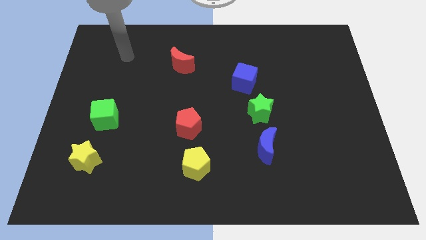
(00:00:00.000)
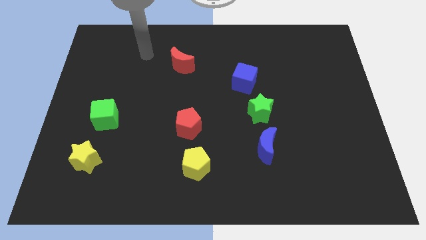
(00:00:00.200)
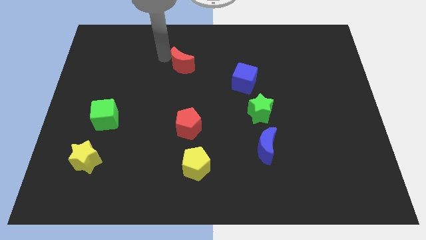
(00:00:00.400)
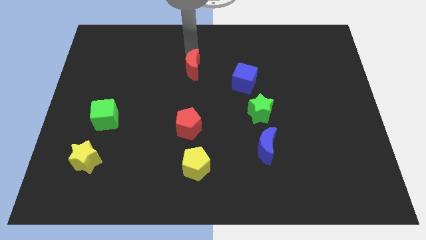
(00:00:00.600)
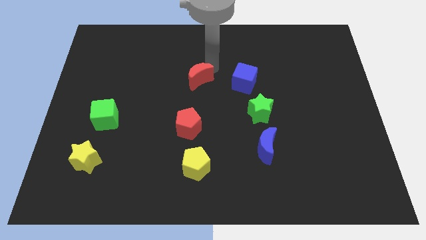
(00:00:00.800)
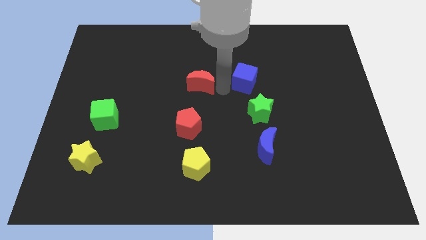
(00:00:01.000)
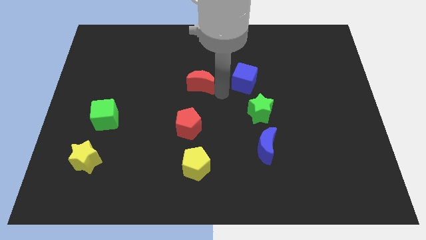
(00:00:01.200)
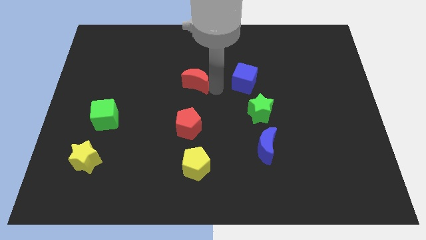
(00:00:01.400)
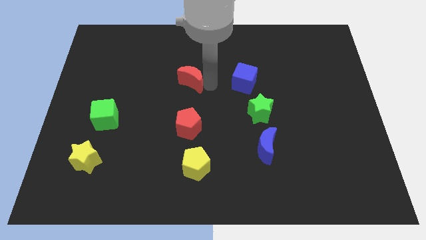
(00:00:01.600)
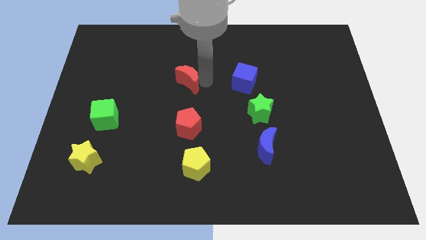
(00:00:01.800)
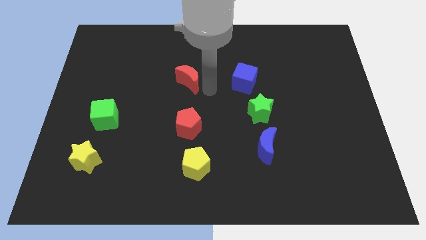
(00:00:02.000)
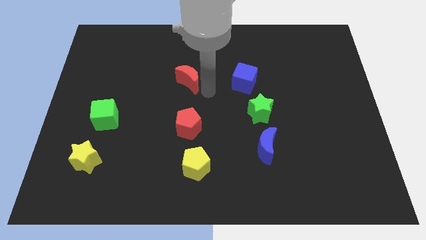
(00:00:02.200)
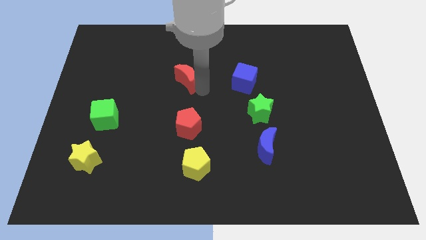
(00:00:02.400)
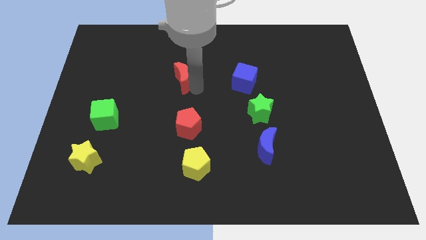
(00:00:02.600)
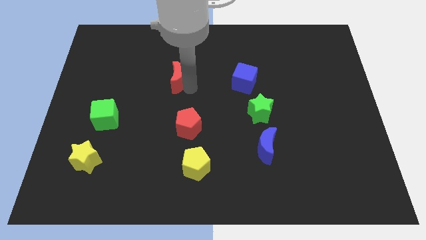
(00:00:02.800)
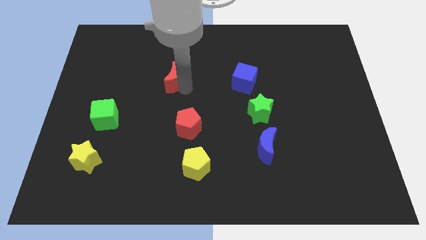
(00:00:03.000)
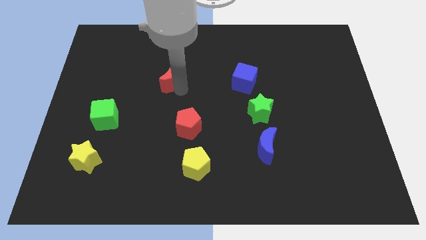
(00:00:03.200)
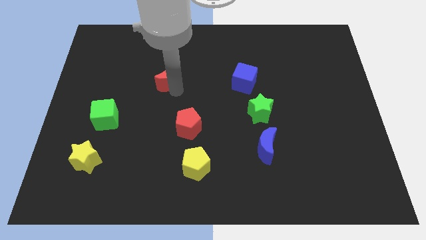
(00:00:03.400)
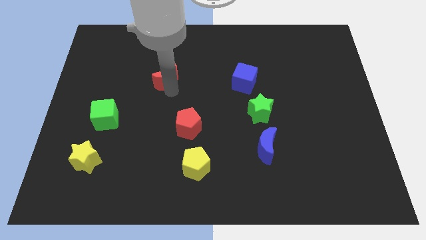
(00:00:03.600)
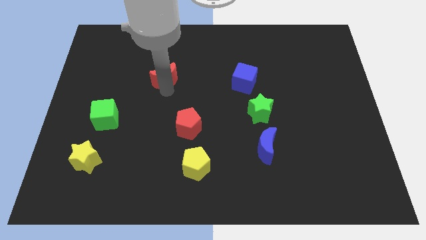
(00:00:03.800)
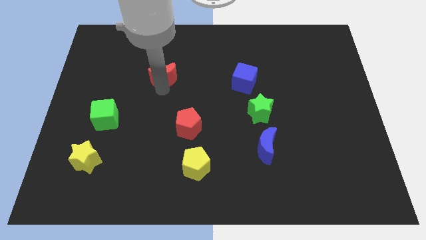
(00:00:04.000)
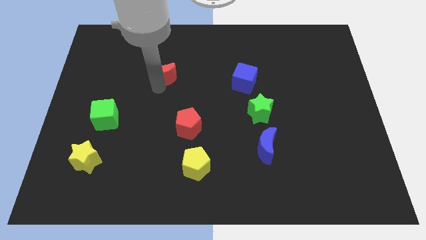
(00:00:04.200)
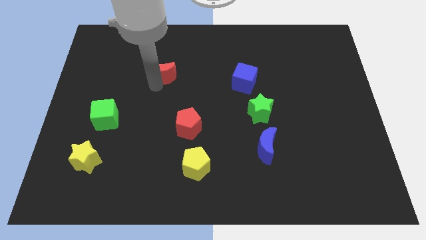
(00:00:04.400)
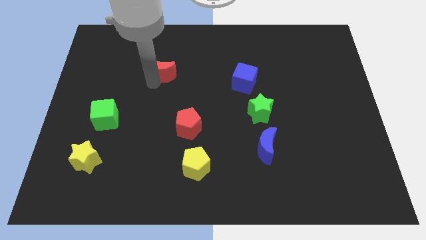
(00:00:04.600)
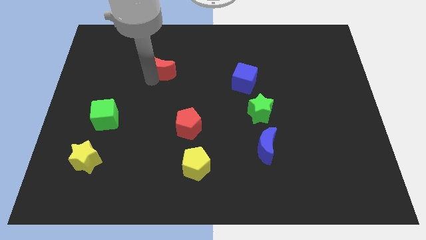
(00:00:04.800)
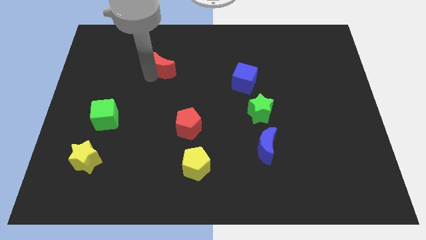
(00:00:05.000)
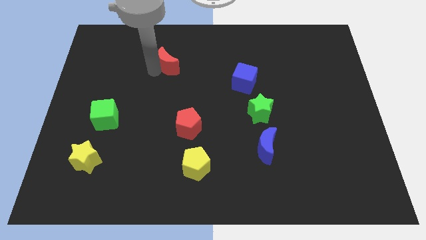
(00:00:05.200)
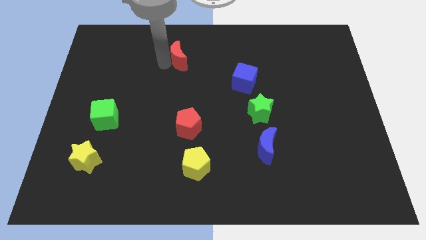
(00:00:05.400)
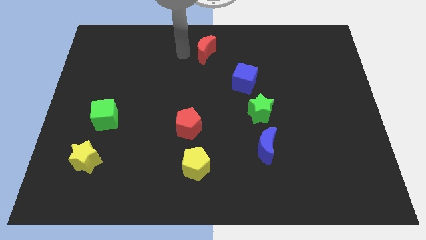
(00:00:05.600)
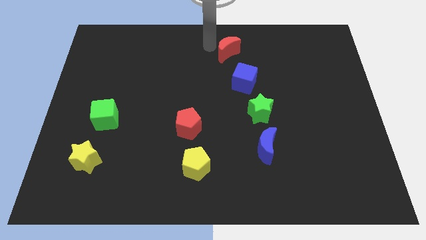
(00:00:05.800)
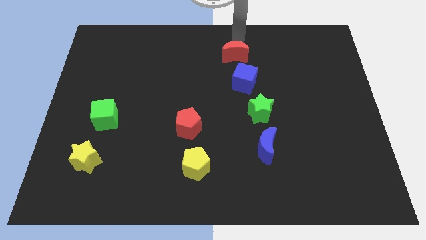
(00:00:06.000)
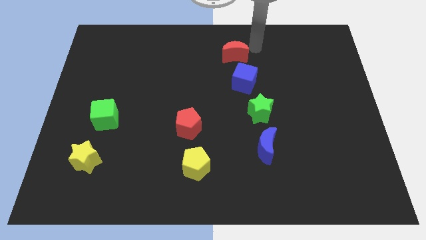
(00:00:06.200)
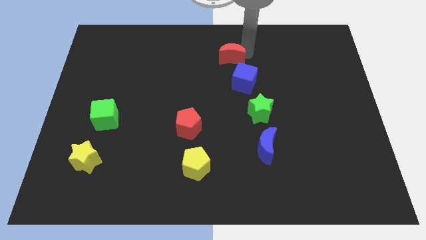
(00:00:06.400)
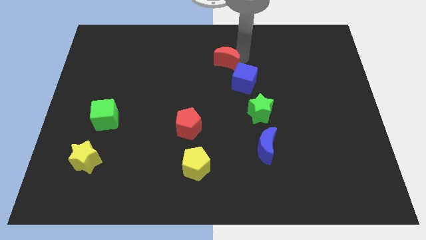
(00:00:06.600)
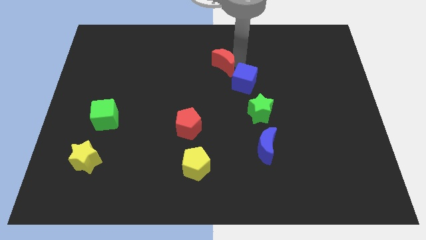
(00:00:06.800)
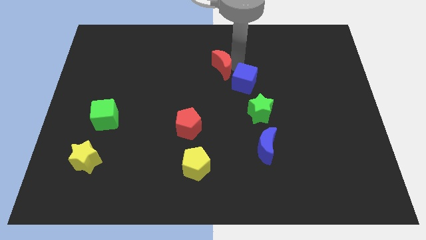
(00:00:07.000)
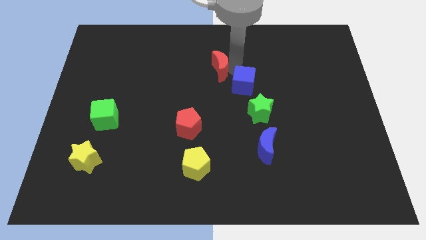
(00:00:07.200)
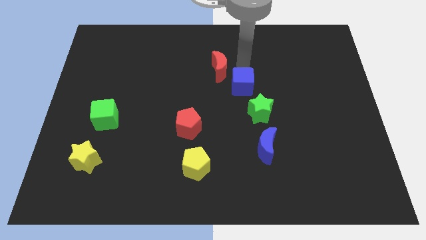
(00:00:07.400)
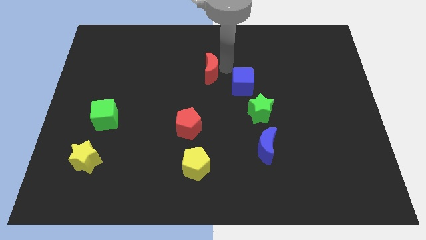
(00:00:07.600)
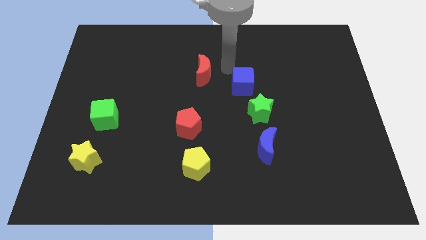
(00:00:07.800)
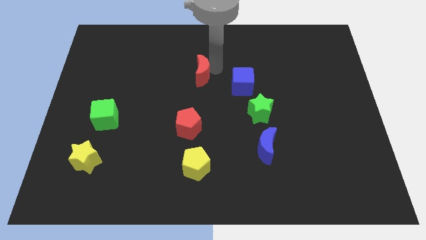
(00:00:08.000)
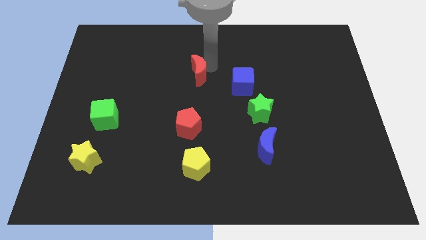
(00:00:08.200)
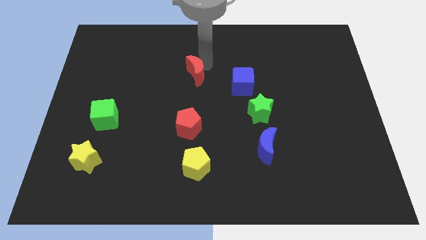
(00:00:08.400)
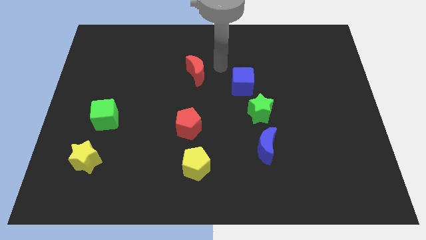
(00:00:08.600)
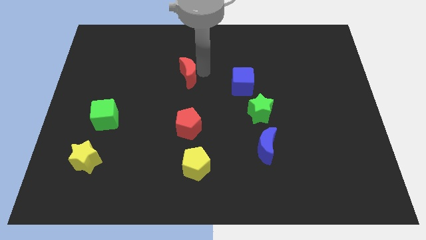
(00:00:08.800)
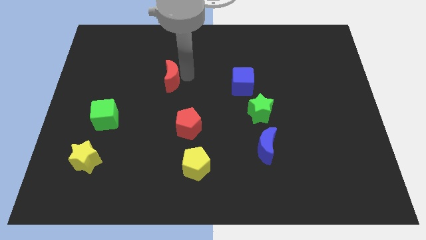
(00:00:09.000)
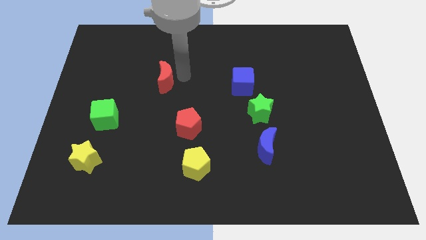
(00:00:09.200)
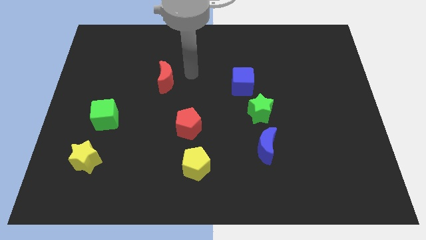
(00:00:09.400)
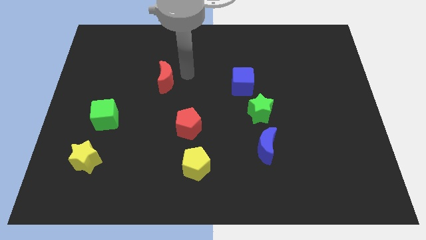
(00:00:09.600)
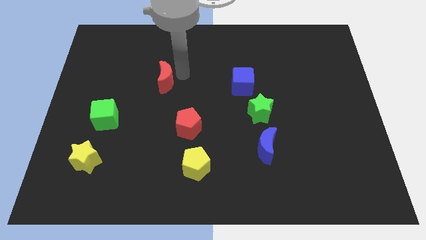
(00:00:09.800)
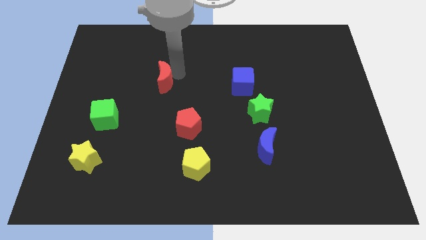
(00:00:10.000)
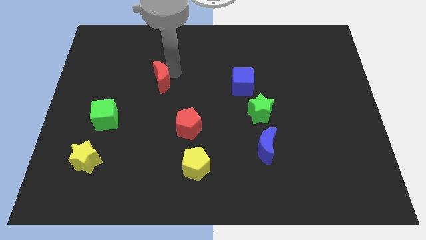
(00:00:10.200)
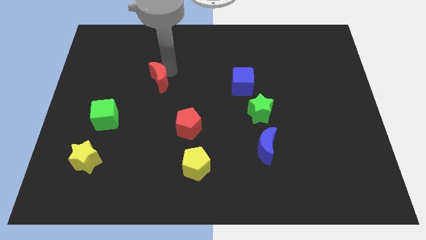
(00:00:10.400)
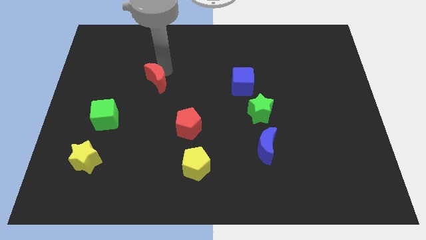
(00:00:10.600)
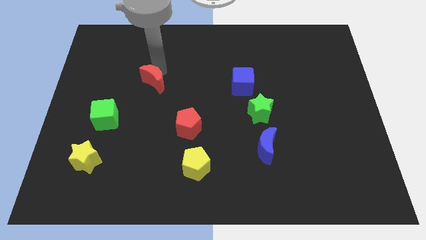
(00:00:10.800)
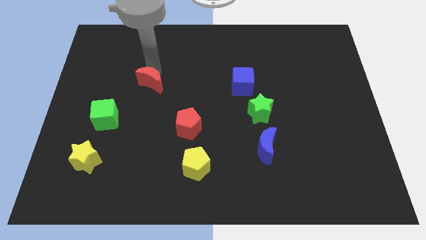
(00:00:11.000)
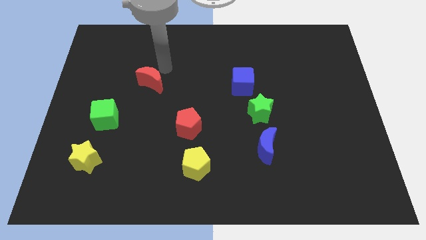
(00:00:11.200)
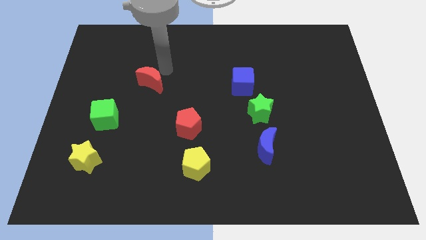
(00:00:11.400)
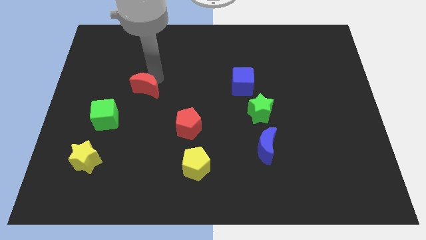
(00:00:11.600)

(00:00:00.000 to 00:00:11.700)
put the red moon diagonally up and to the right of the green cube

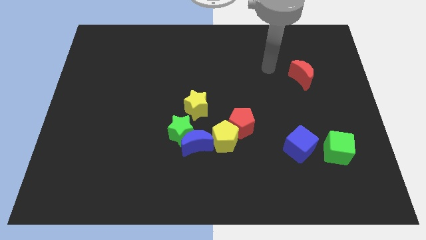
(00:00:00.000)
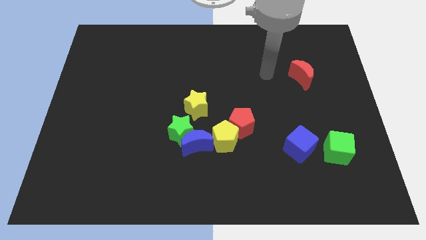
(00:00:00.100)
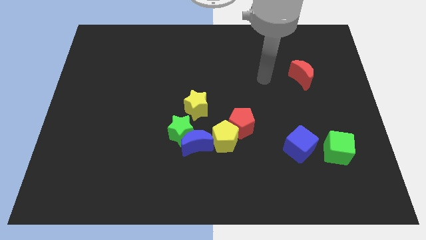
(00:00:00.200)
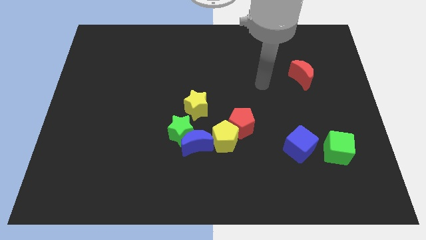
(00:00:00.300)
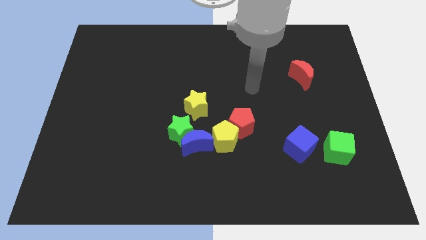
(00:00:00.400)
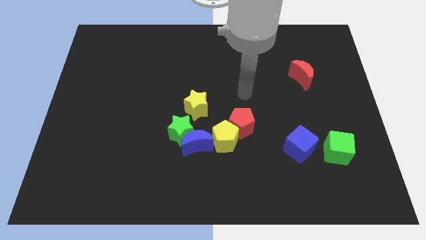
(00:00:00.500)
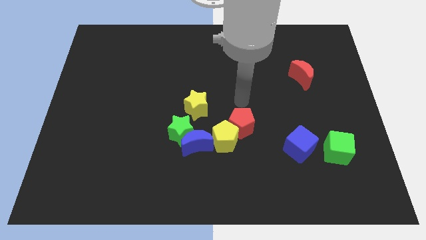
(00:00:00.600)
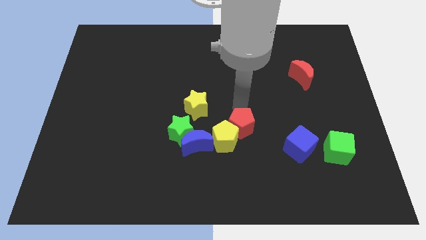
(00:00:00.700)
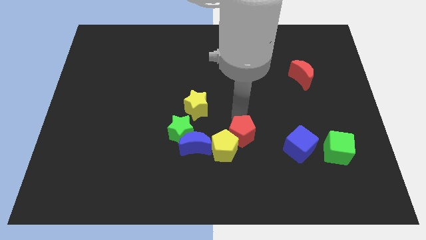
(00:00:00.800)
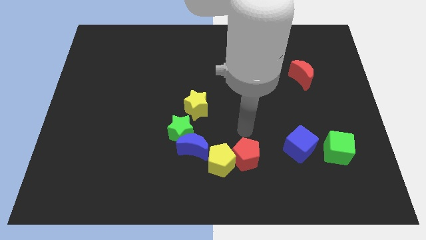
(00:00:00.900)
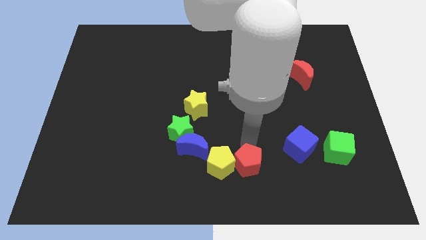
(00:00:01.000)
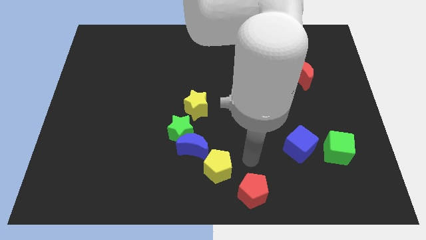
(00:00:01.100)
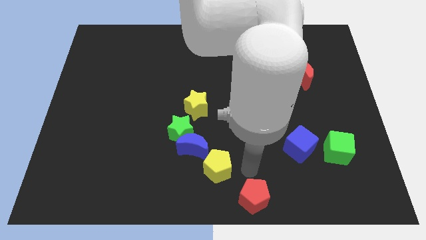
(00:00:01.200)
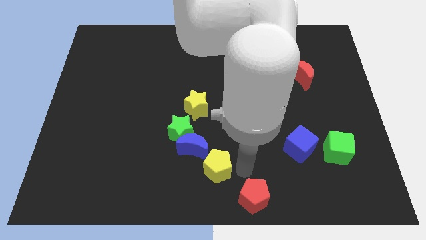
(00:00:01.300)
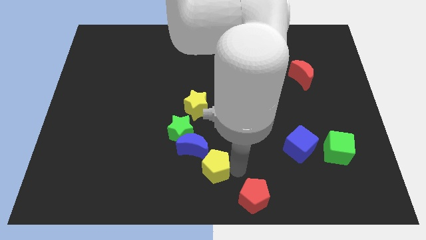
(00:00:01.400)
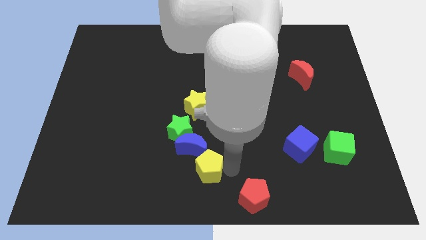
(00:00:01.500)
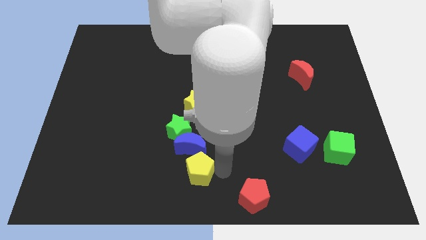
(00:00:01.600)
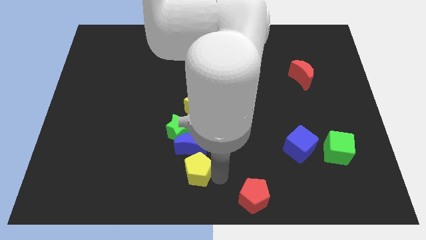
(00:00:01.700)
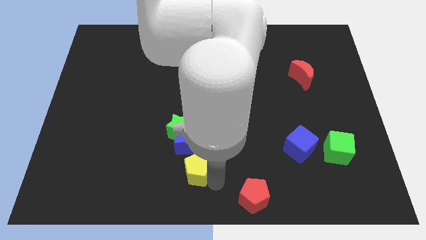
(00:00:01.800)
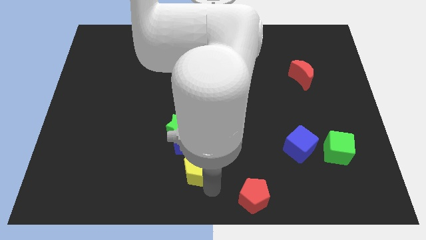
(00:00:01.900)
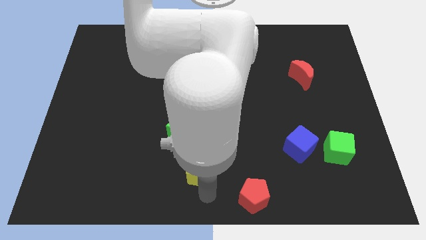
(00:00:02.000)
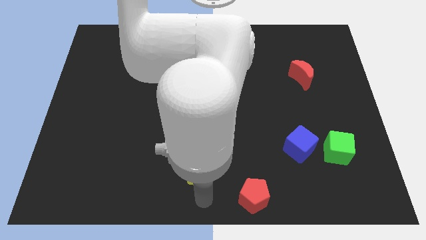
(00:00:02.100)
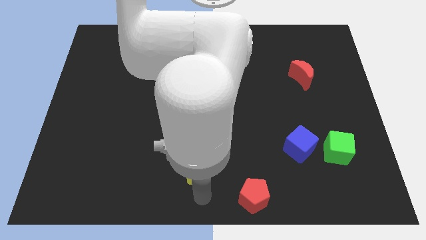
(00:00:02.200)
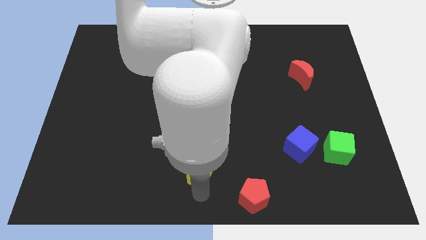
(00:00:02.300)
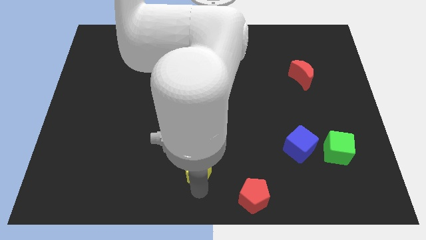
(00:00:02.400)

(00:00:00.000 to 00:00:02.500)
put the yellow pentagon to the bottom of the yellow star
